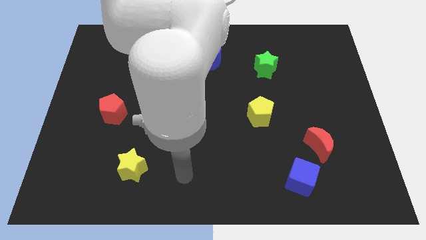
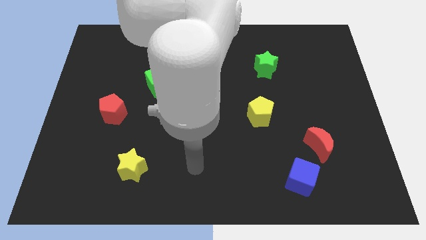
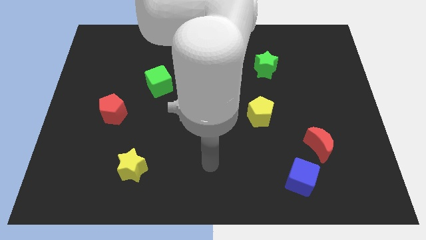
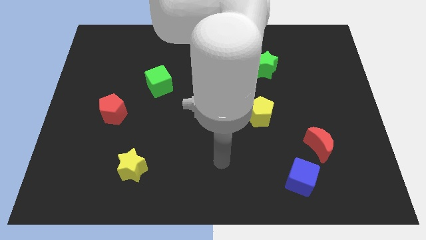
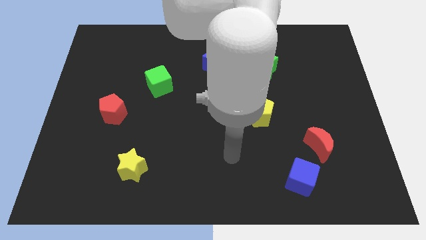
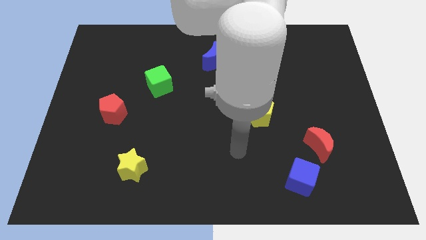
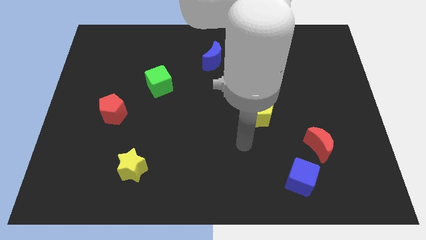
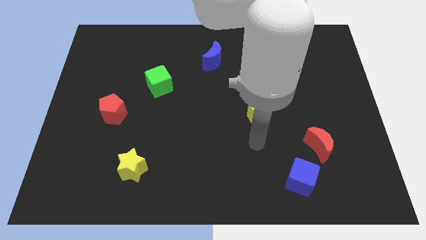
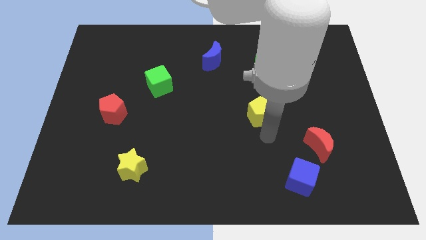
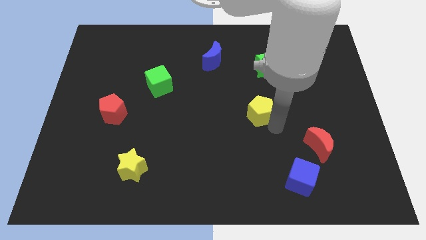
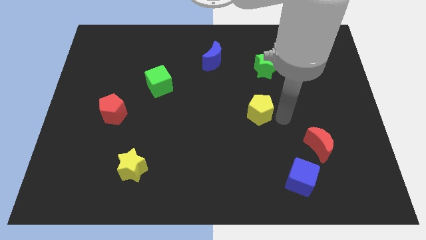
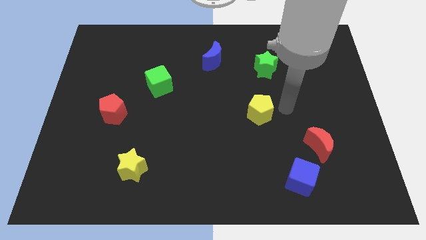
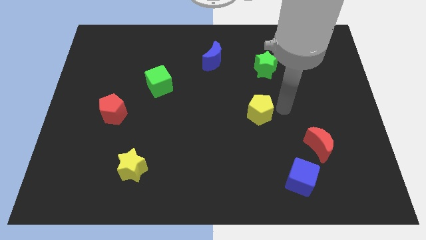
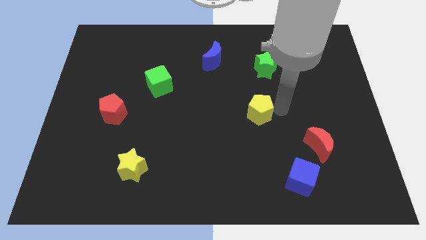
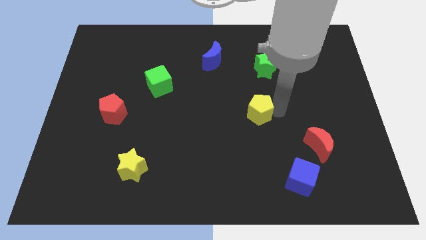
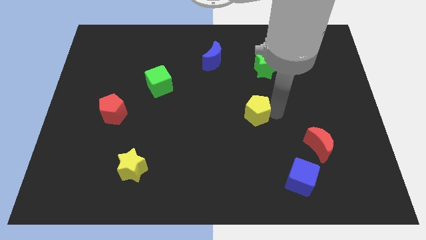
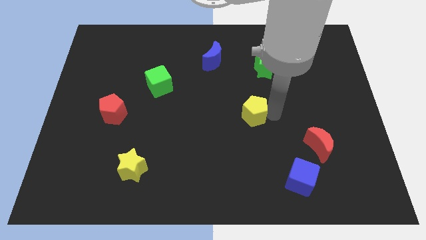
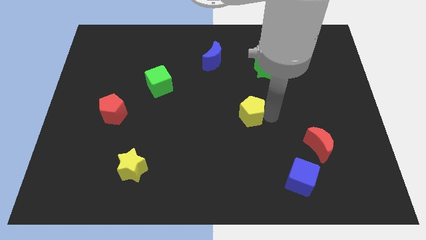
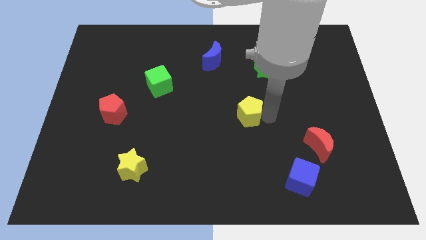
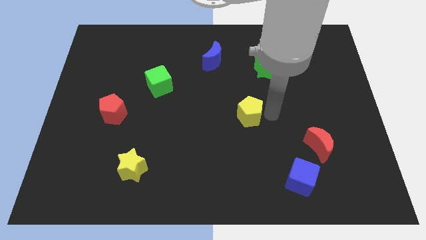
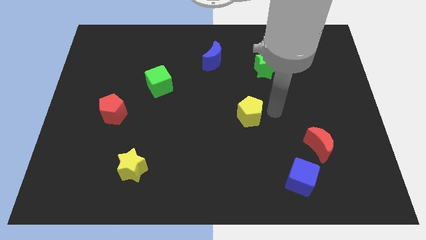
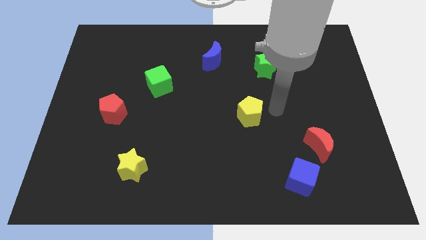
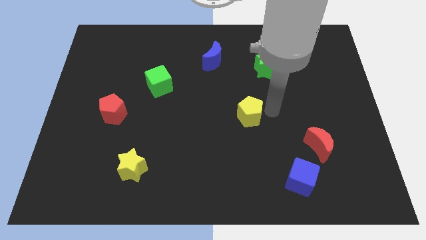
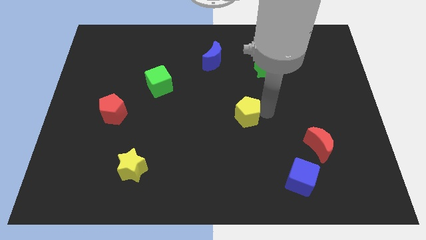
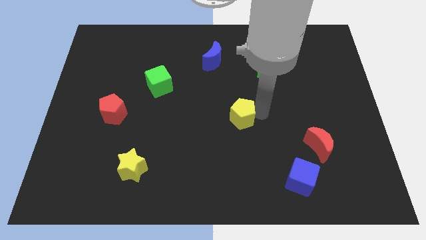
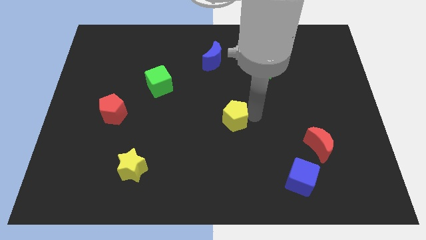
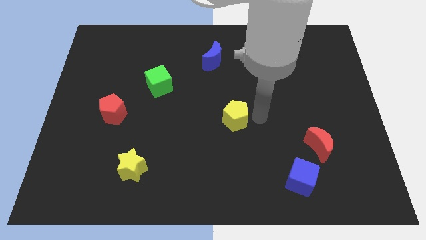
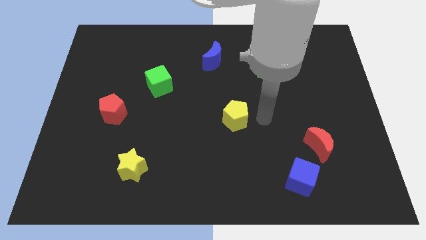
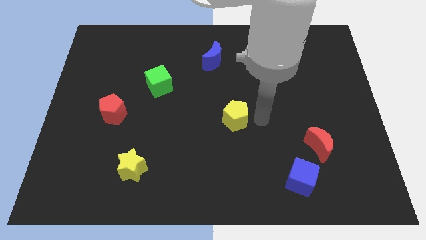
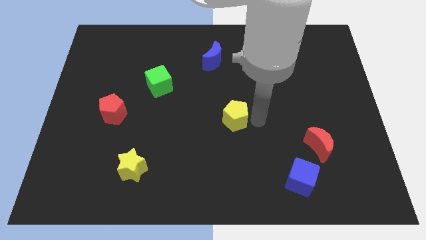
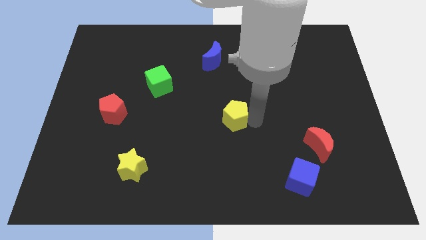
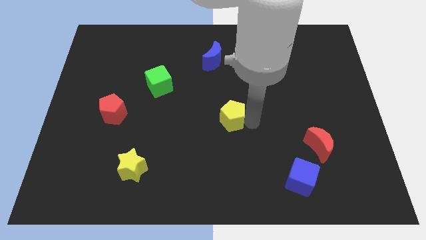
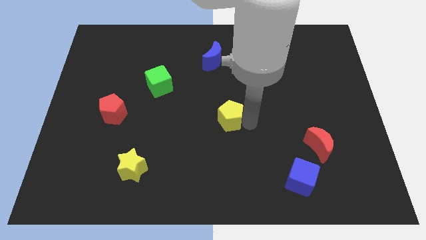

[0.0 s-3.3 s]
slightly slide the yellow pentagon left

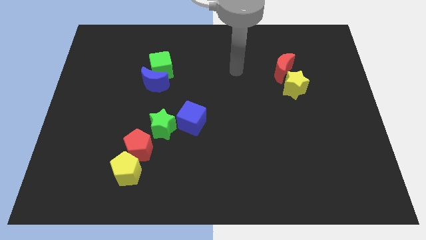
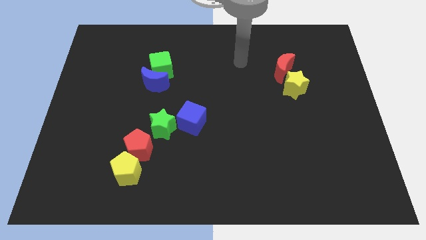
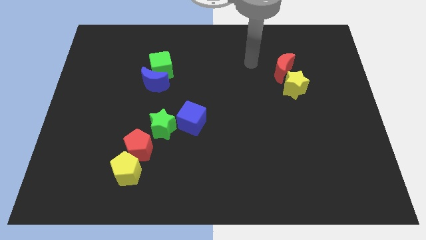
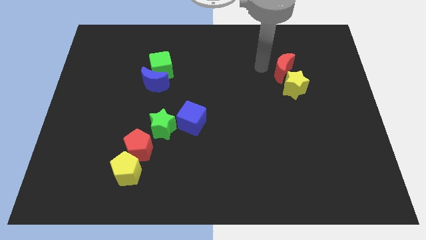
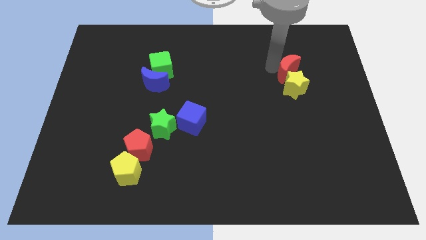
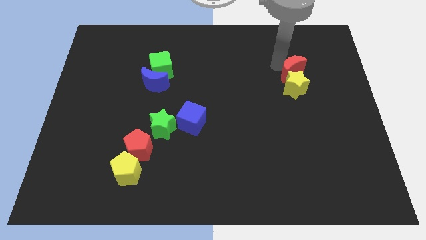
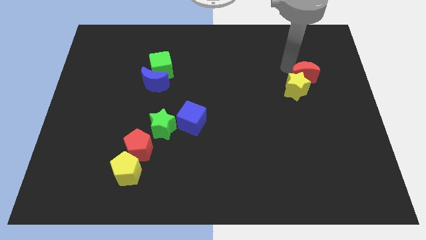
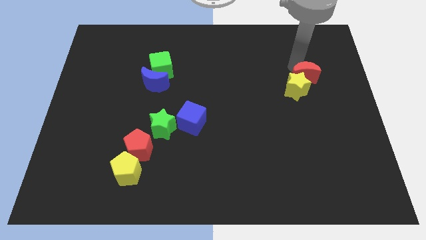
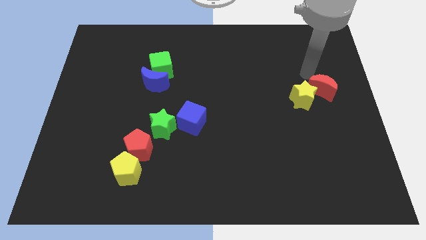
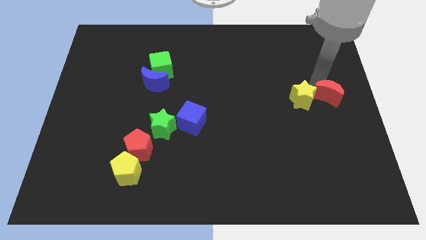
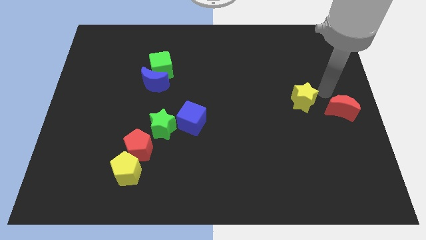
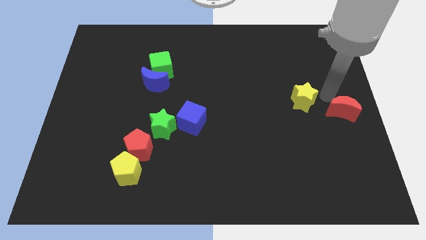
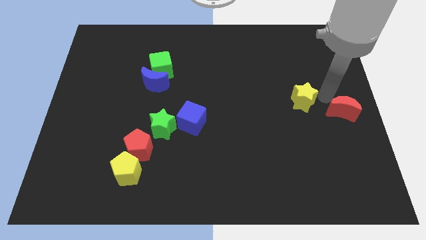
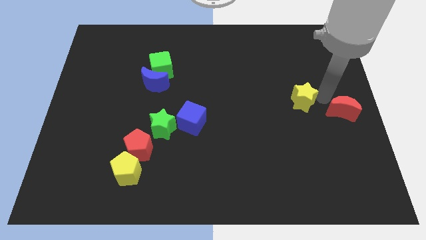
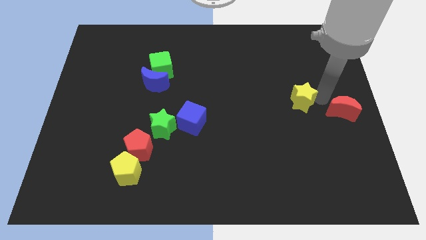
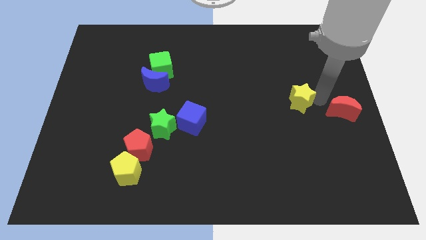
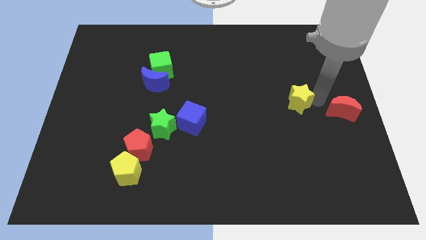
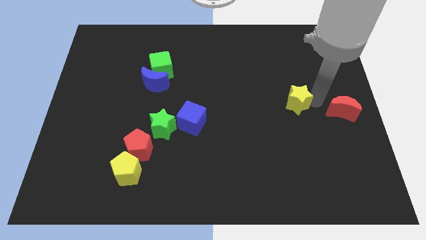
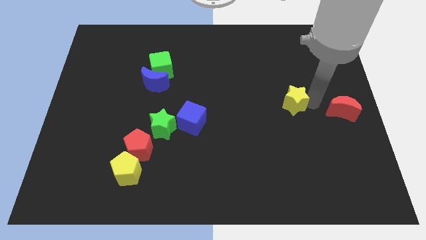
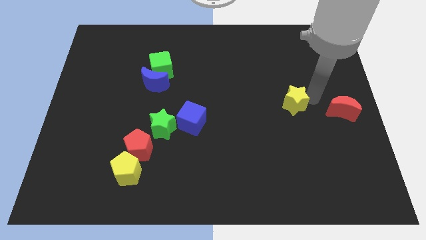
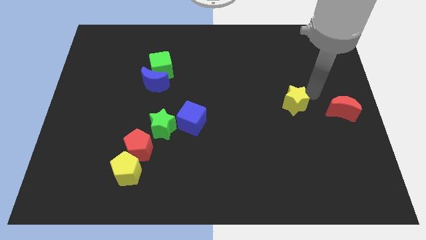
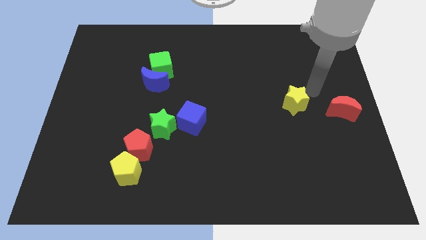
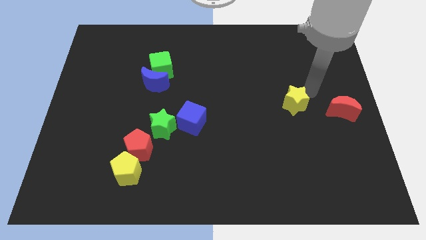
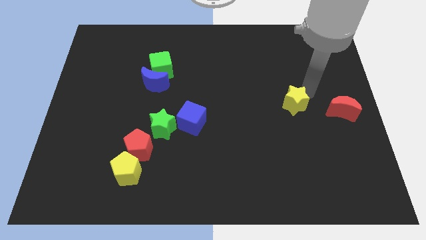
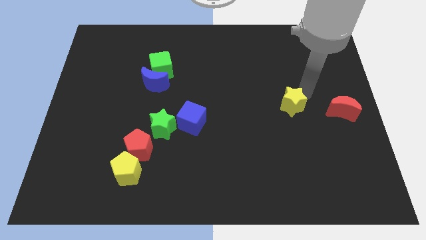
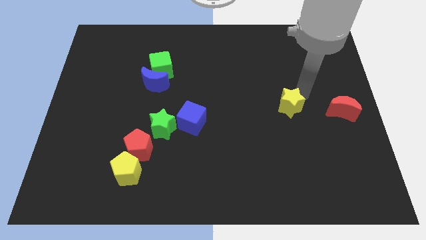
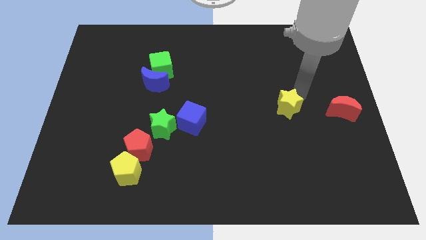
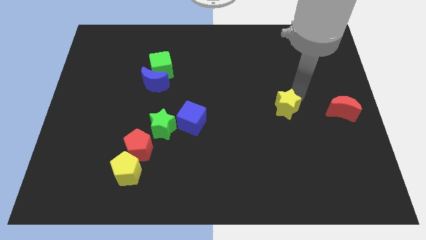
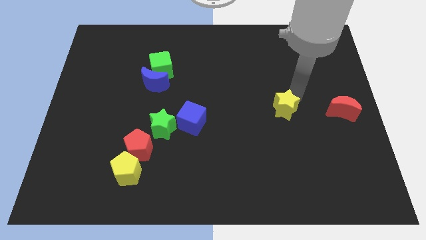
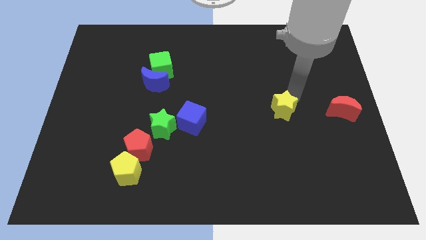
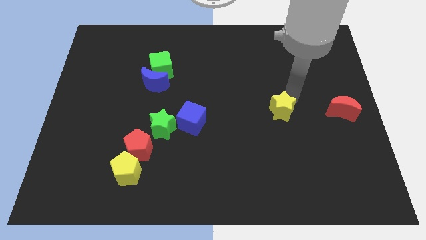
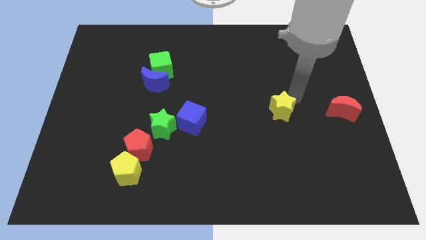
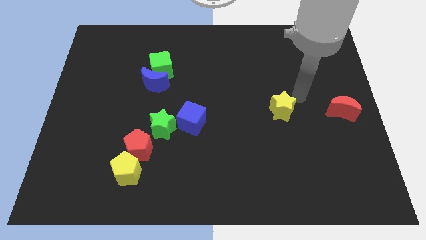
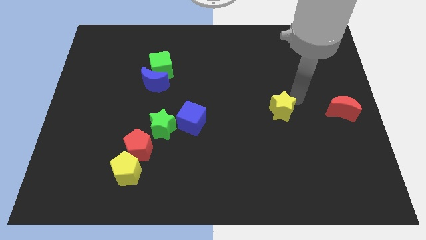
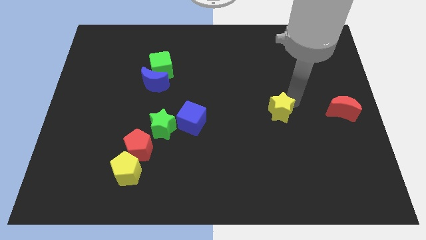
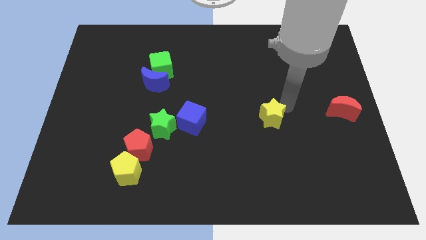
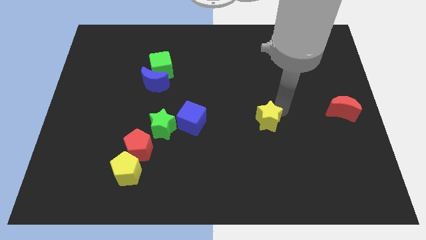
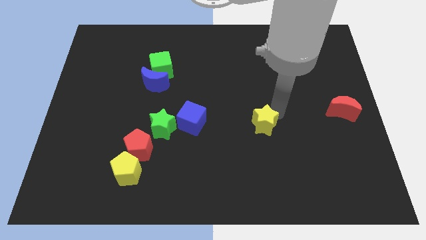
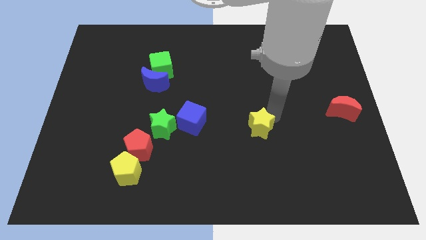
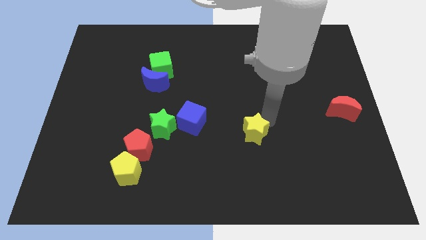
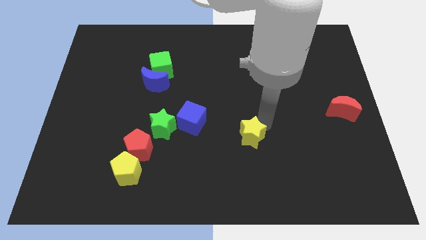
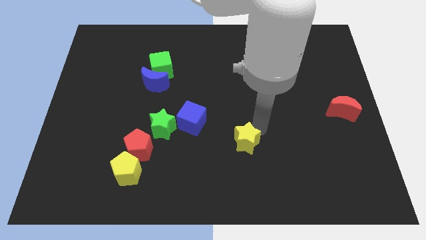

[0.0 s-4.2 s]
move the yellow star downwards and to the left

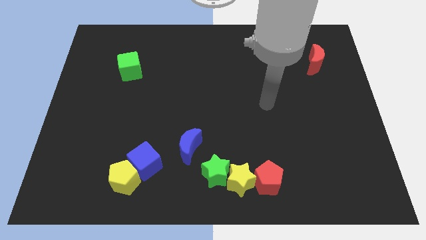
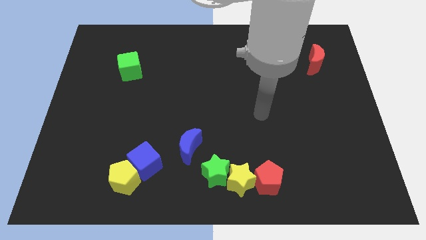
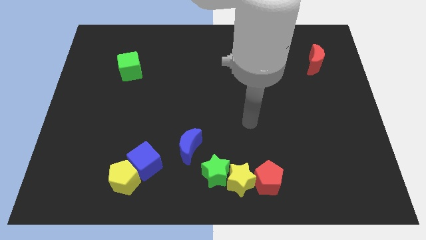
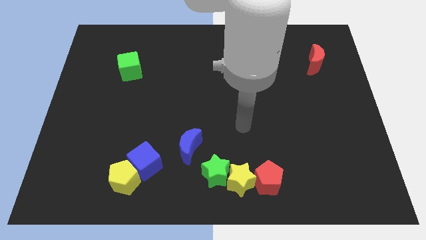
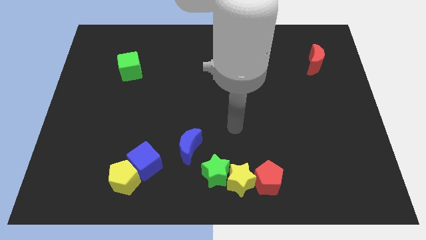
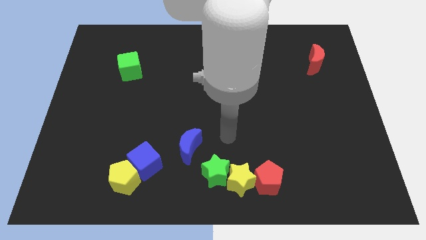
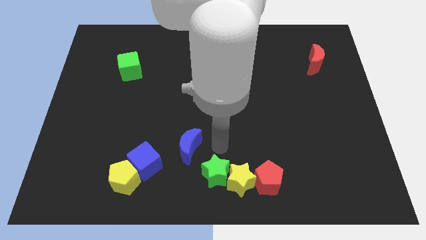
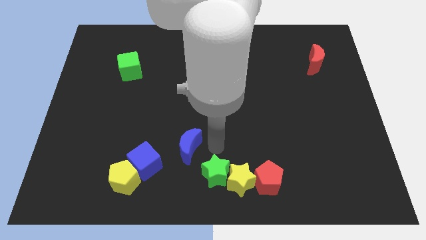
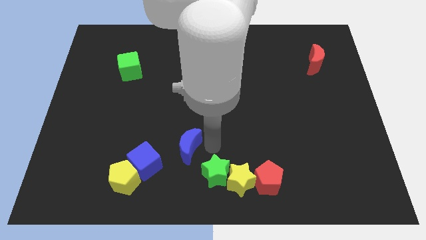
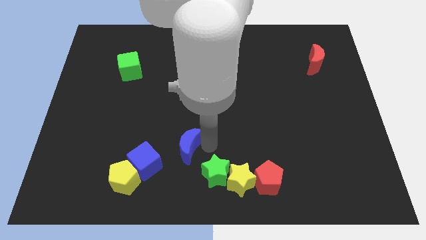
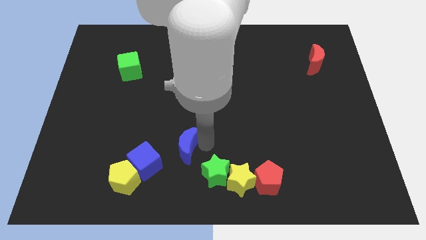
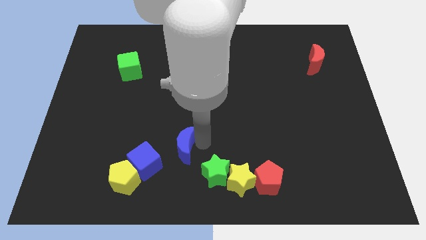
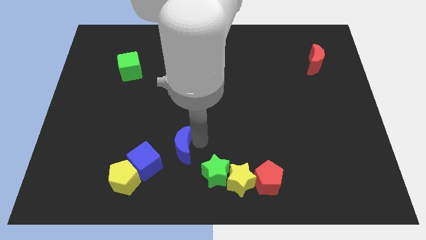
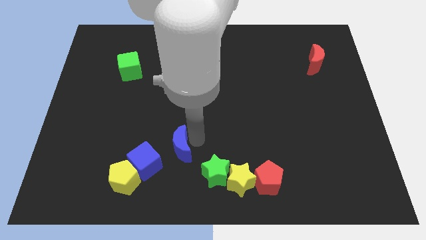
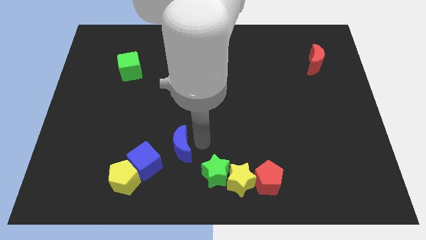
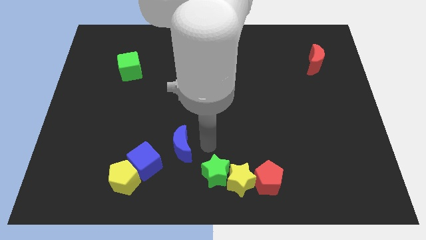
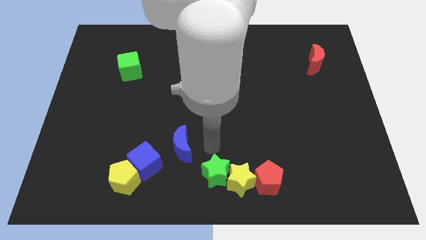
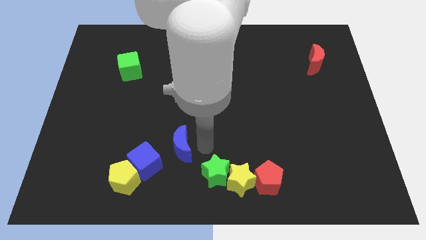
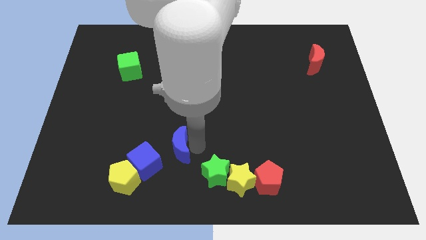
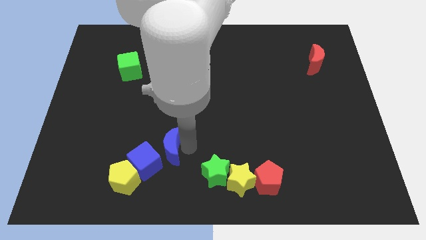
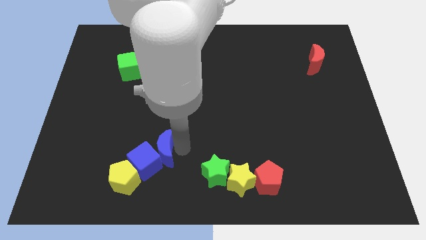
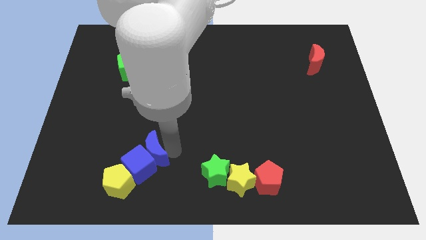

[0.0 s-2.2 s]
slide the blue moon a little to the left
